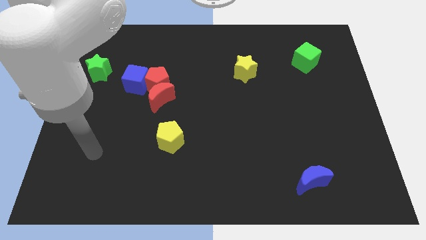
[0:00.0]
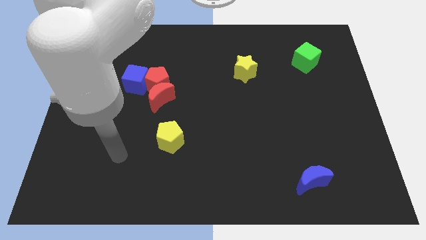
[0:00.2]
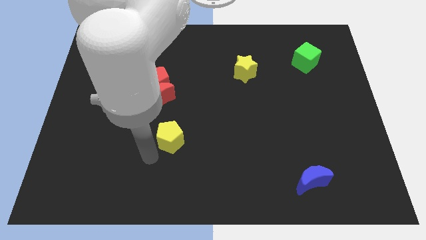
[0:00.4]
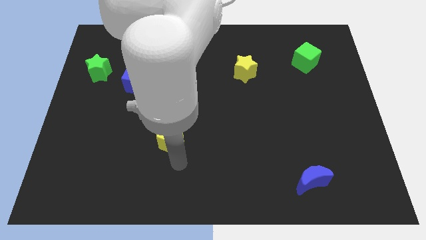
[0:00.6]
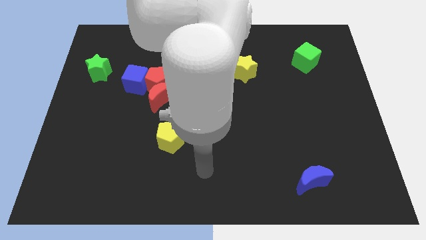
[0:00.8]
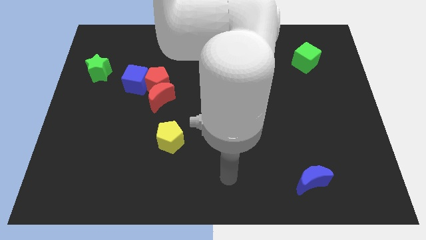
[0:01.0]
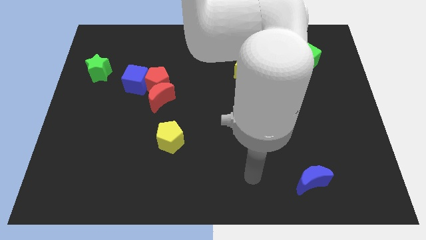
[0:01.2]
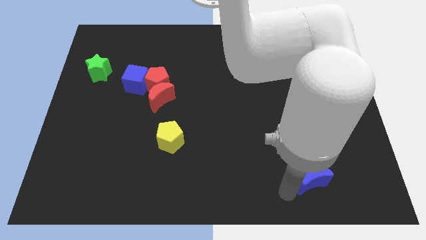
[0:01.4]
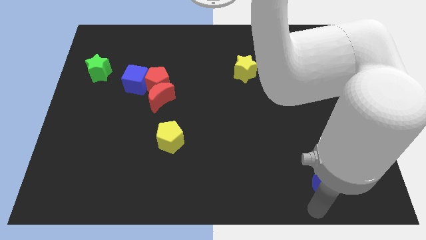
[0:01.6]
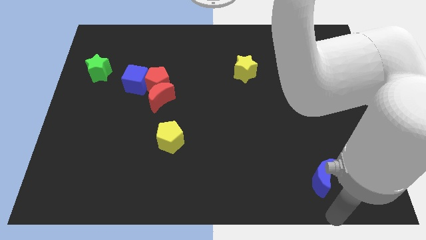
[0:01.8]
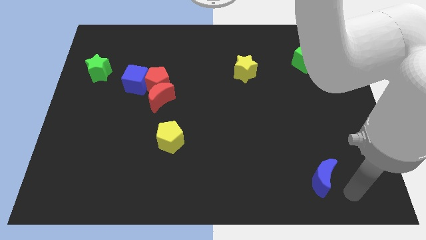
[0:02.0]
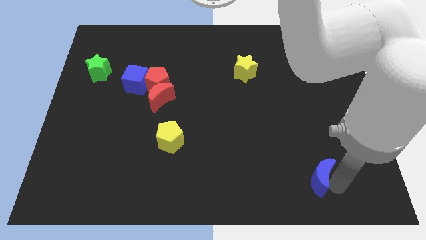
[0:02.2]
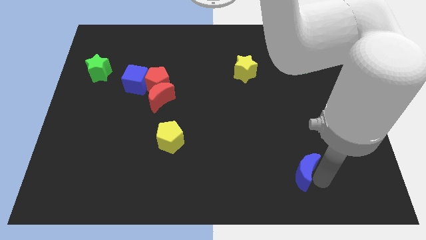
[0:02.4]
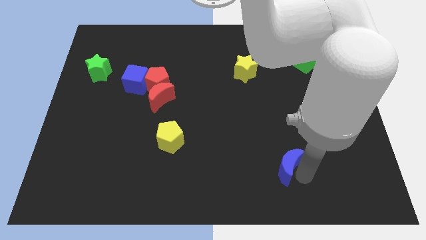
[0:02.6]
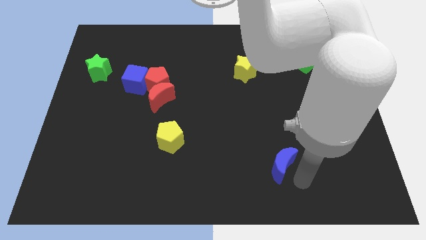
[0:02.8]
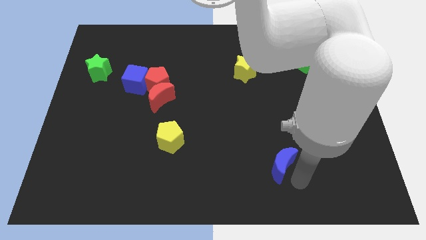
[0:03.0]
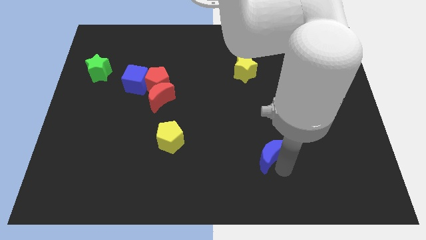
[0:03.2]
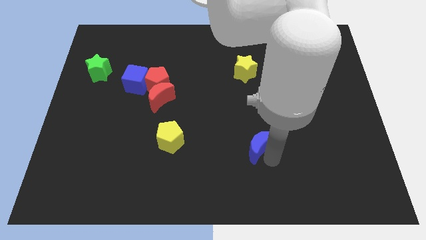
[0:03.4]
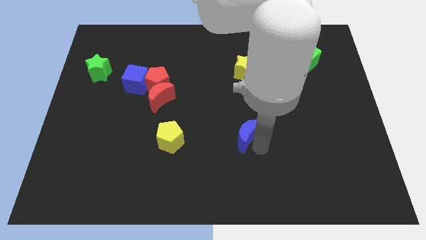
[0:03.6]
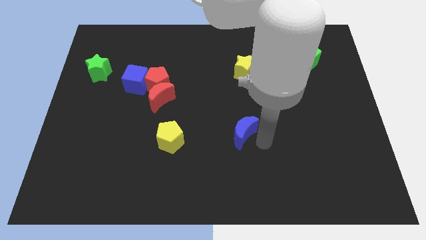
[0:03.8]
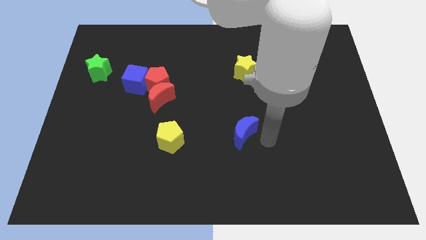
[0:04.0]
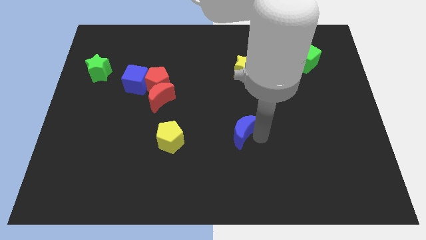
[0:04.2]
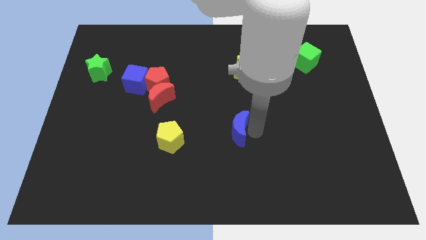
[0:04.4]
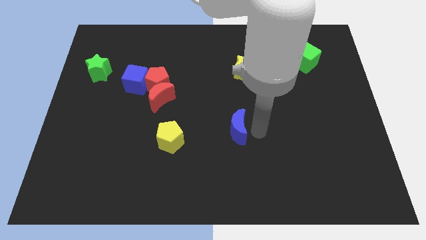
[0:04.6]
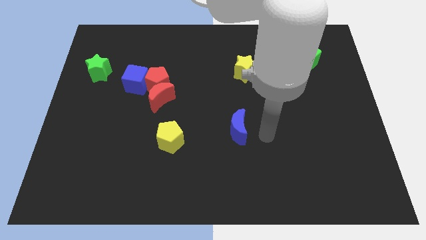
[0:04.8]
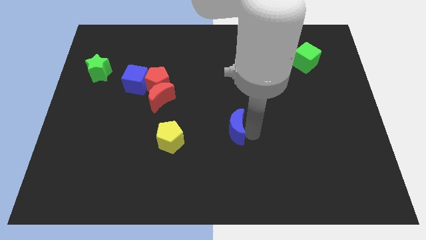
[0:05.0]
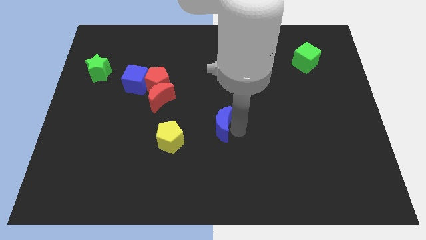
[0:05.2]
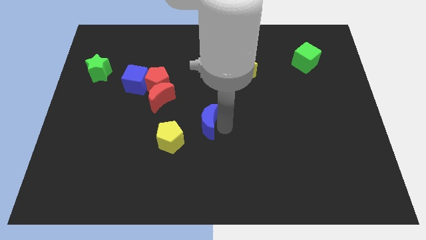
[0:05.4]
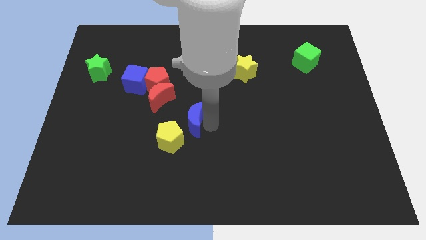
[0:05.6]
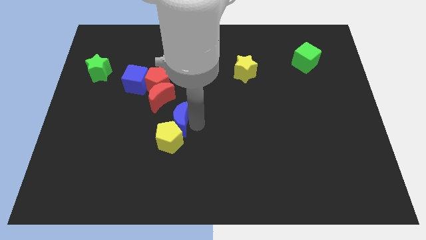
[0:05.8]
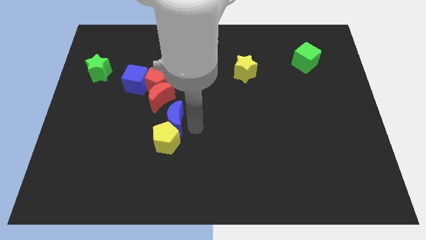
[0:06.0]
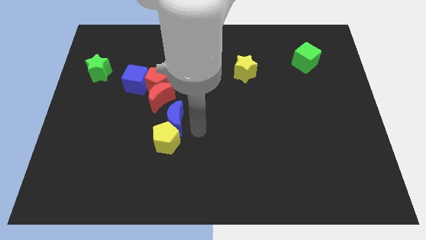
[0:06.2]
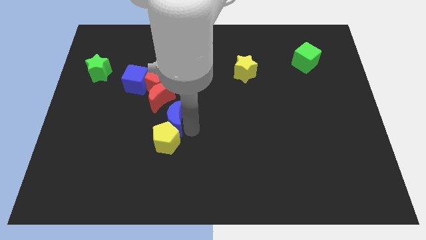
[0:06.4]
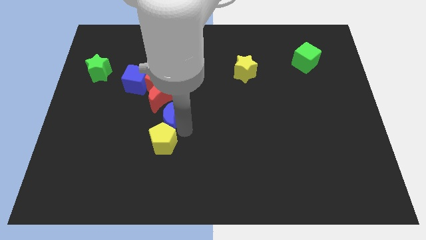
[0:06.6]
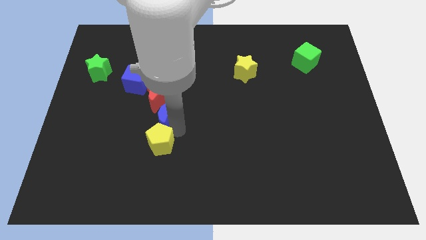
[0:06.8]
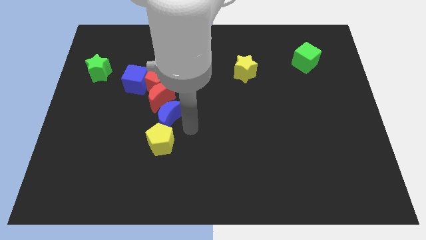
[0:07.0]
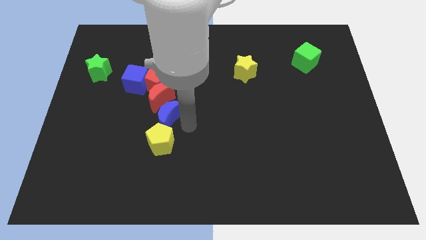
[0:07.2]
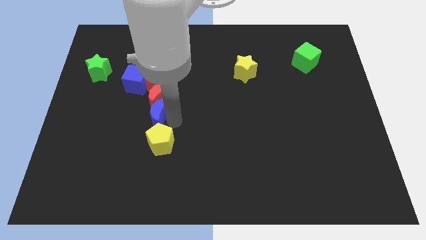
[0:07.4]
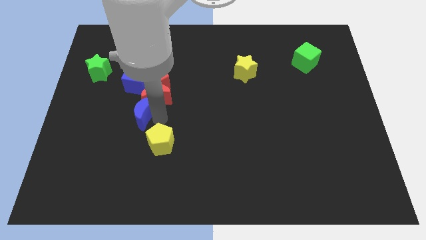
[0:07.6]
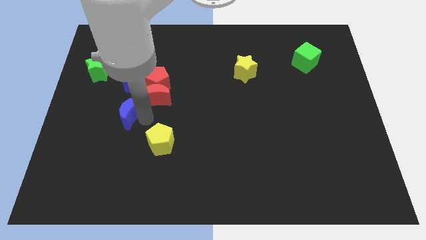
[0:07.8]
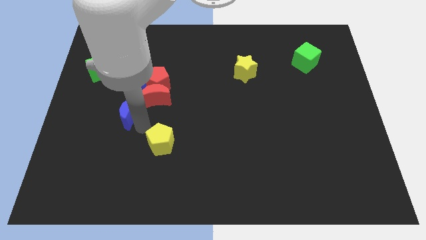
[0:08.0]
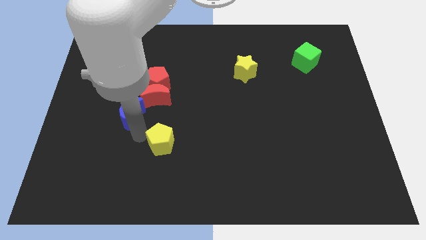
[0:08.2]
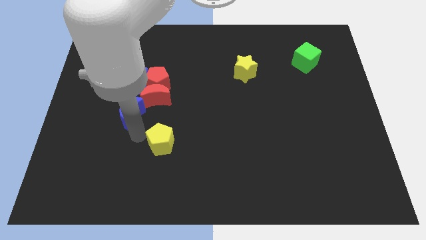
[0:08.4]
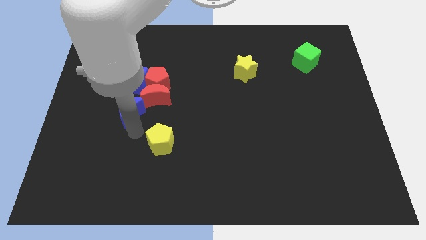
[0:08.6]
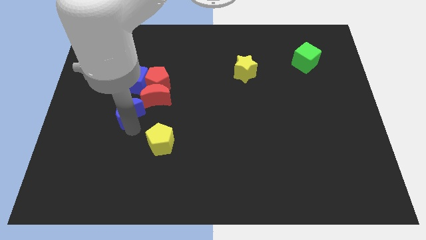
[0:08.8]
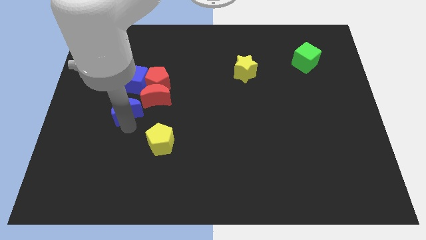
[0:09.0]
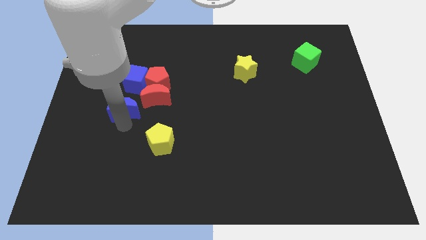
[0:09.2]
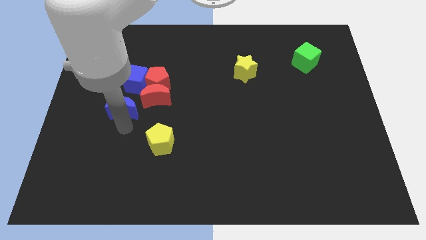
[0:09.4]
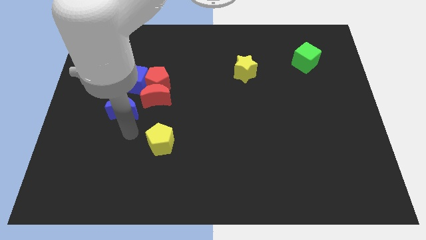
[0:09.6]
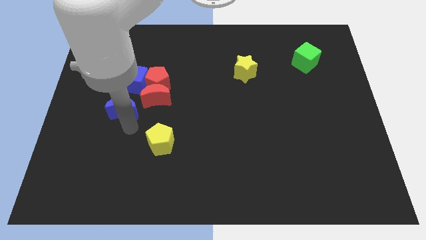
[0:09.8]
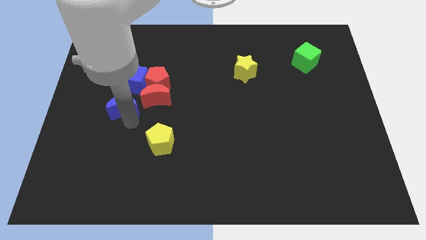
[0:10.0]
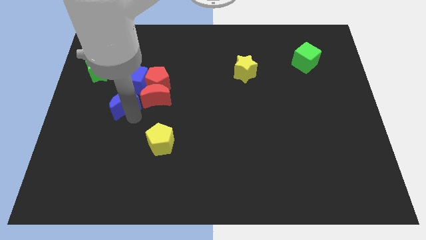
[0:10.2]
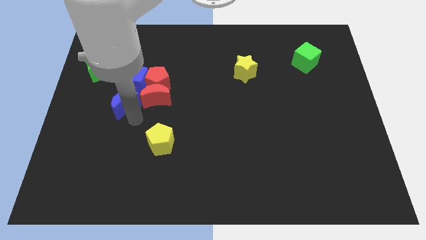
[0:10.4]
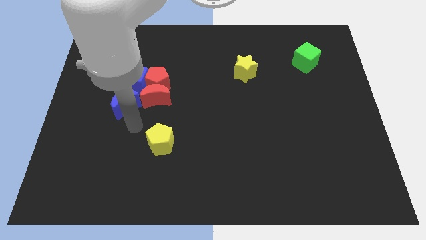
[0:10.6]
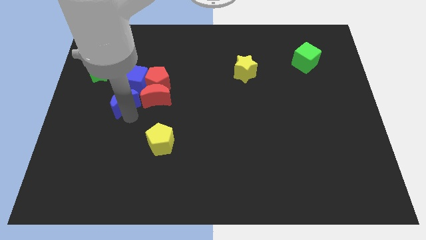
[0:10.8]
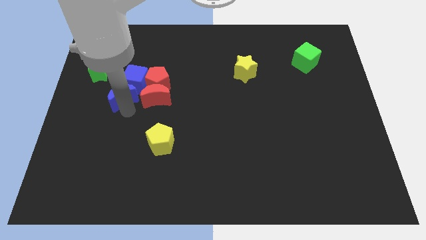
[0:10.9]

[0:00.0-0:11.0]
push the blue moon to the bottom right of the green star

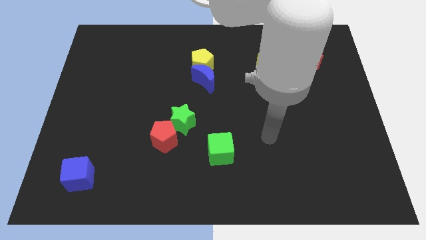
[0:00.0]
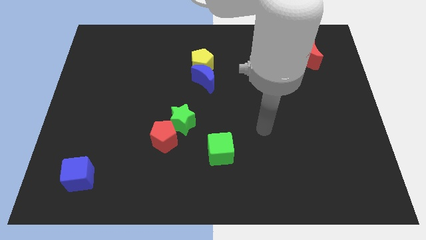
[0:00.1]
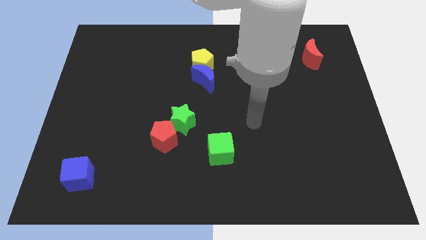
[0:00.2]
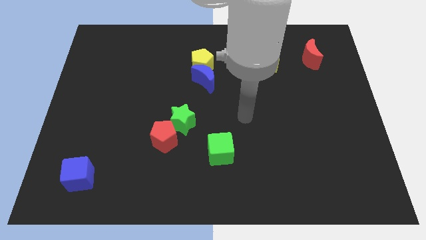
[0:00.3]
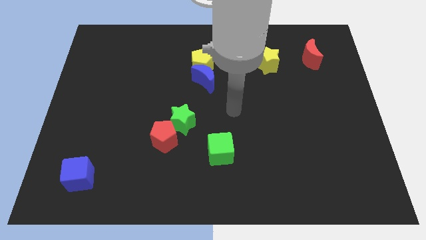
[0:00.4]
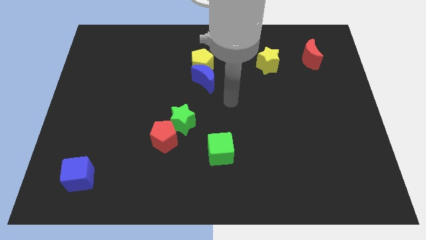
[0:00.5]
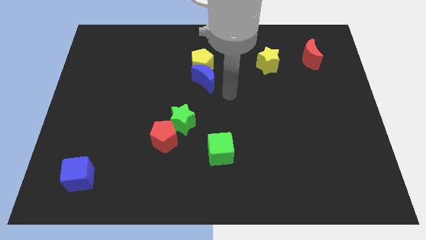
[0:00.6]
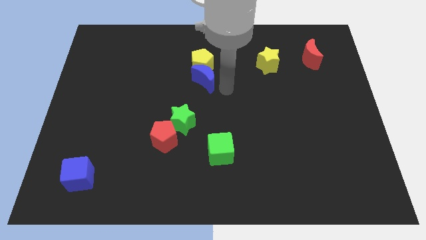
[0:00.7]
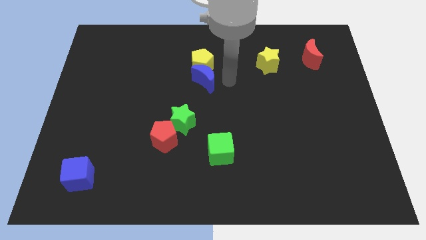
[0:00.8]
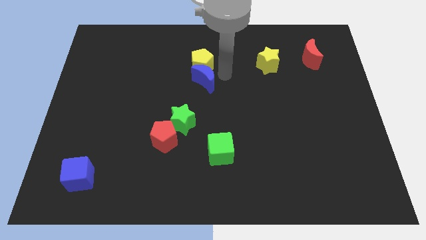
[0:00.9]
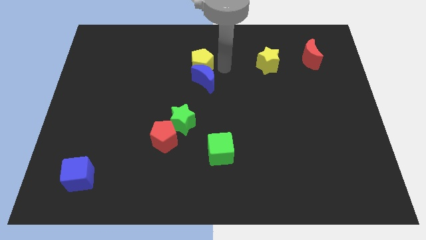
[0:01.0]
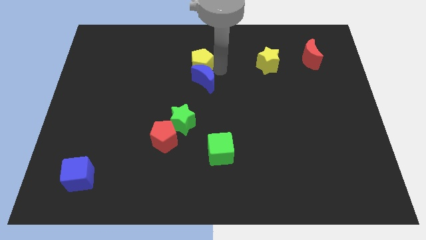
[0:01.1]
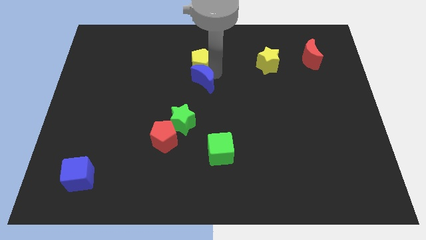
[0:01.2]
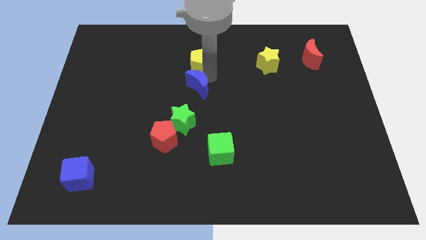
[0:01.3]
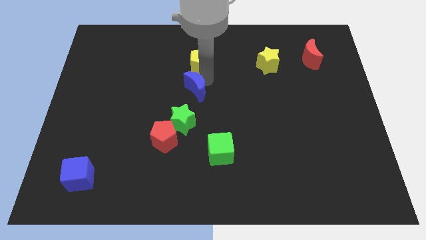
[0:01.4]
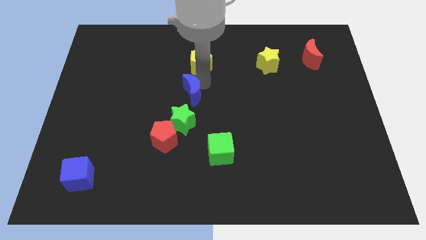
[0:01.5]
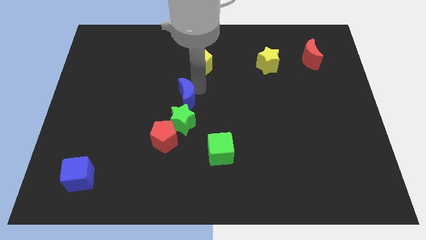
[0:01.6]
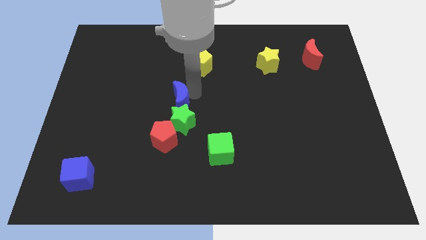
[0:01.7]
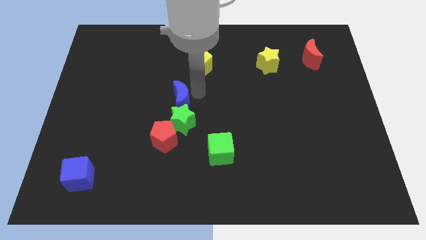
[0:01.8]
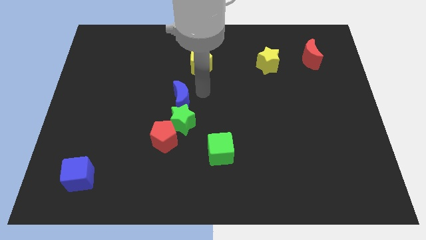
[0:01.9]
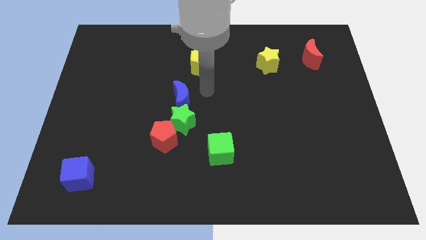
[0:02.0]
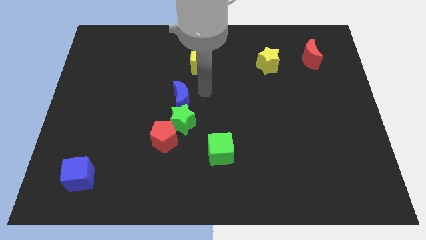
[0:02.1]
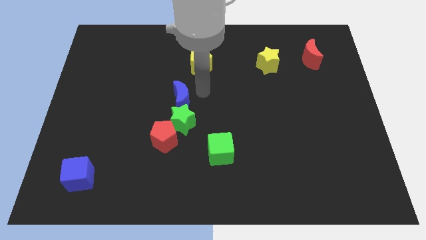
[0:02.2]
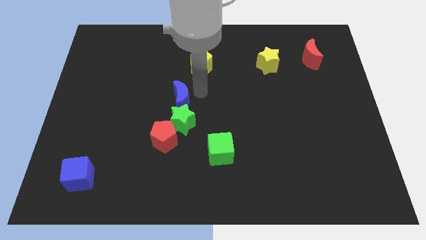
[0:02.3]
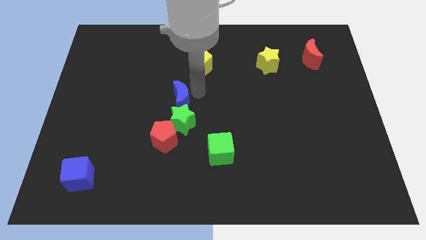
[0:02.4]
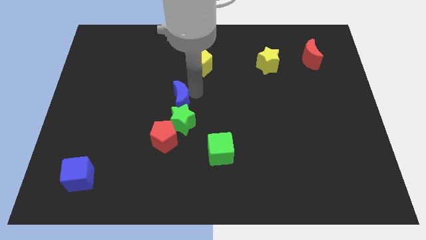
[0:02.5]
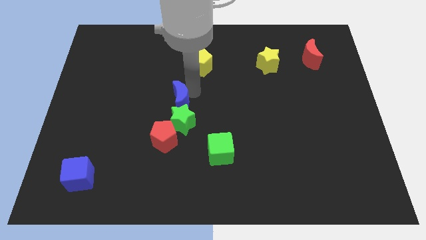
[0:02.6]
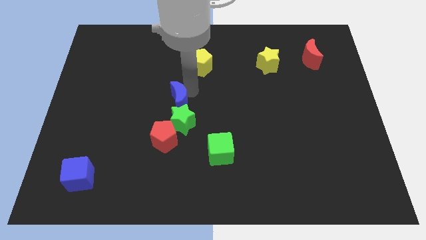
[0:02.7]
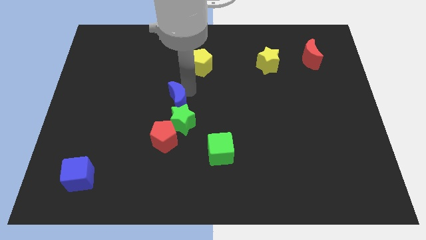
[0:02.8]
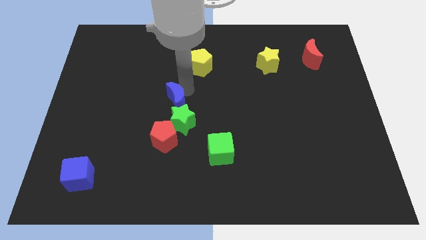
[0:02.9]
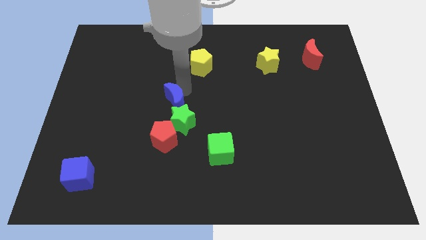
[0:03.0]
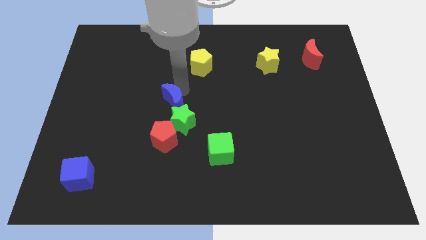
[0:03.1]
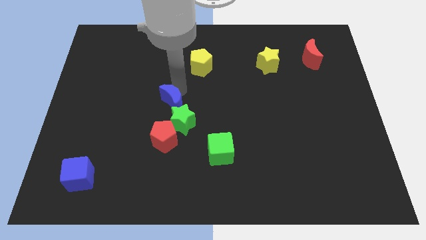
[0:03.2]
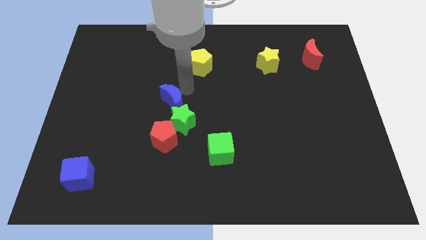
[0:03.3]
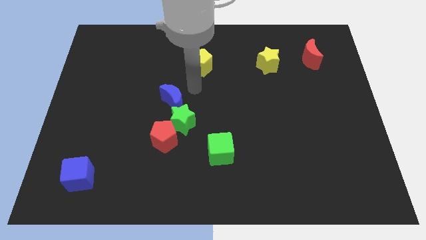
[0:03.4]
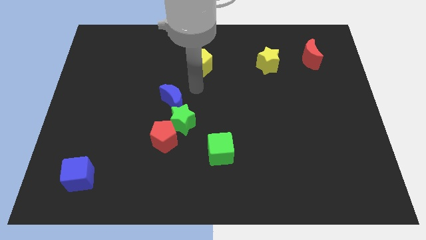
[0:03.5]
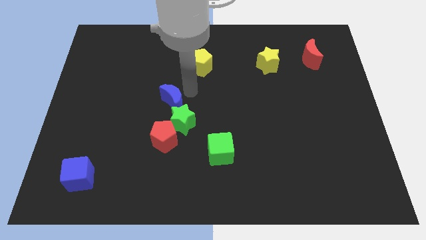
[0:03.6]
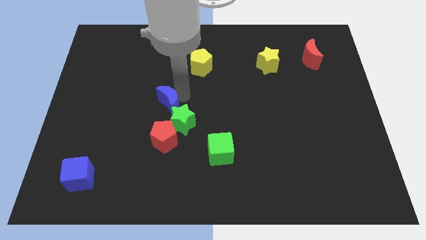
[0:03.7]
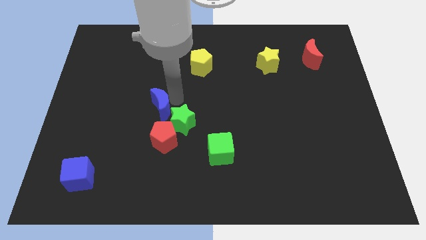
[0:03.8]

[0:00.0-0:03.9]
move the blue moon left of the green star
